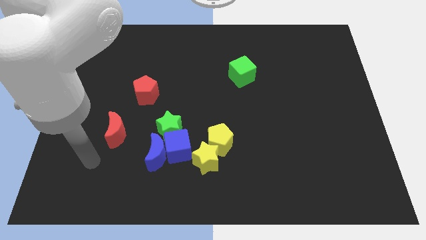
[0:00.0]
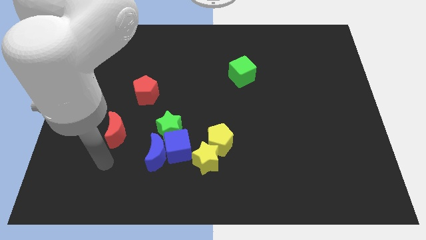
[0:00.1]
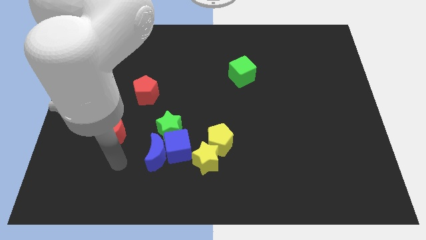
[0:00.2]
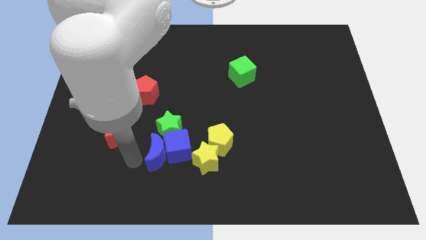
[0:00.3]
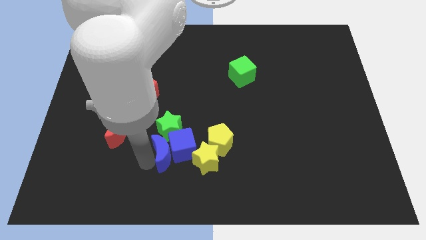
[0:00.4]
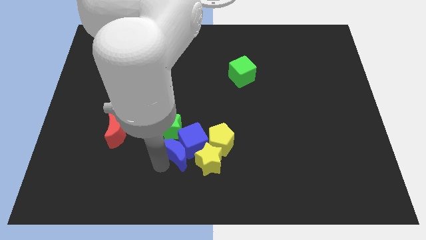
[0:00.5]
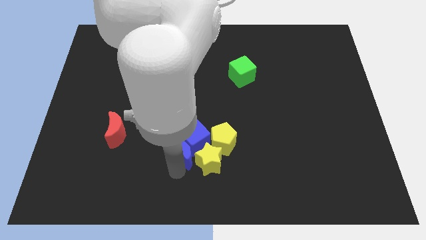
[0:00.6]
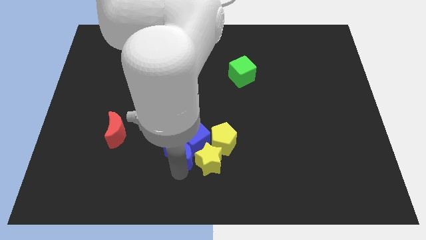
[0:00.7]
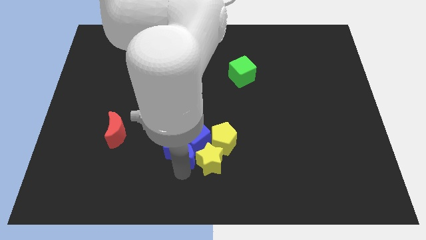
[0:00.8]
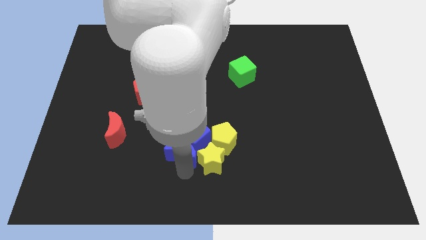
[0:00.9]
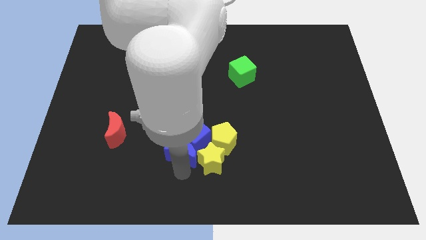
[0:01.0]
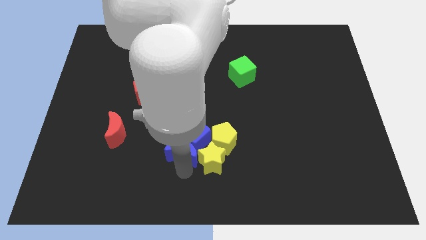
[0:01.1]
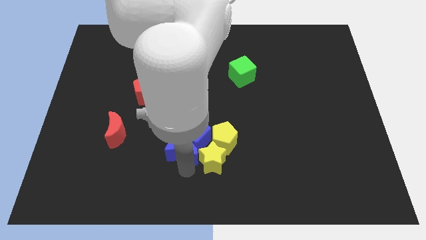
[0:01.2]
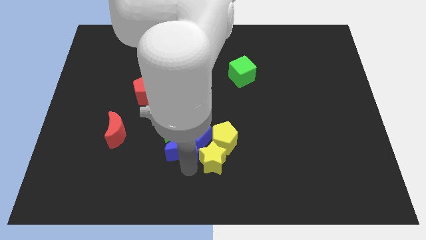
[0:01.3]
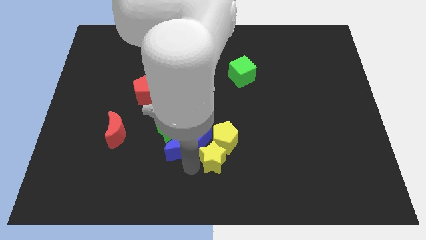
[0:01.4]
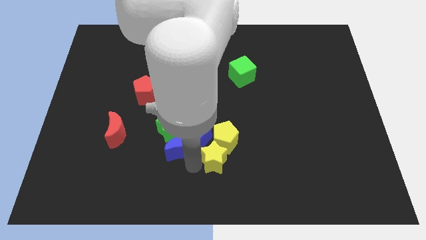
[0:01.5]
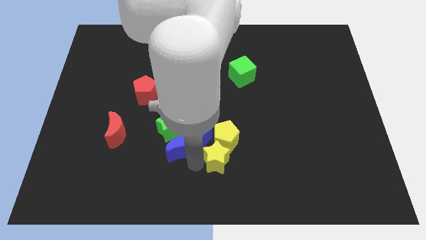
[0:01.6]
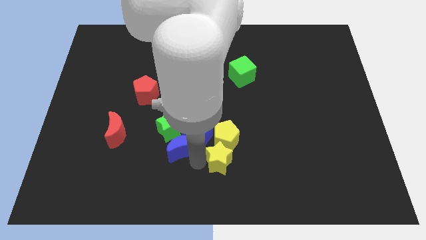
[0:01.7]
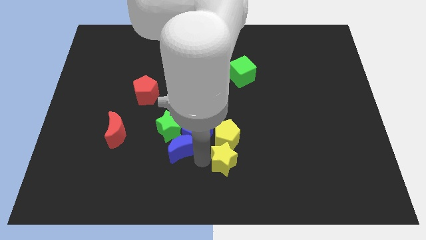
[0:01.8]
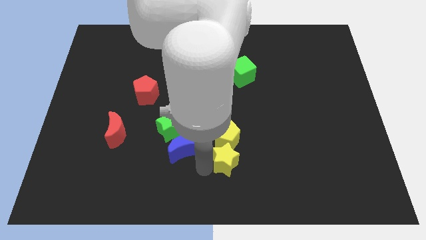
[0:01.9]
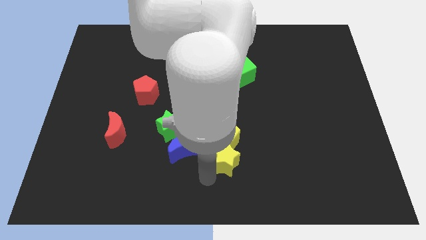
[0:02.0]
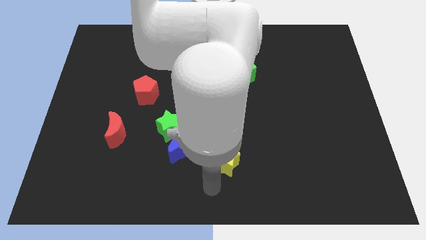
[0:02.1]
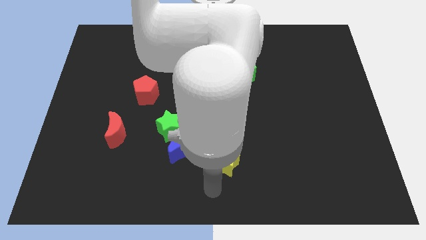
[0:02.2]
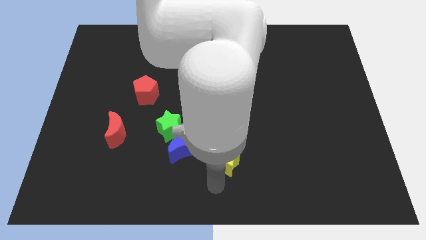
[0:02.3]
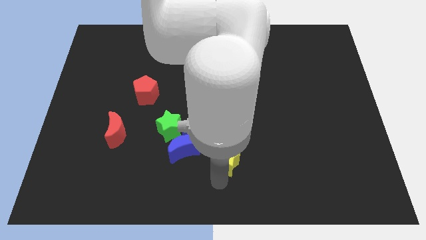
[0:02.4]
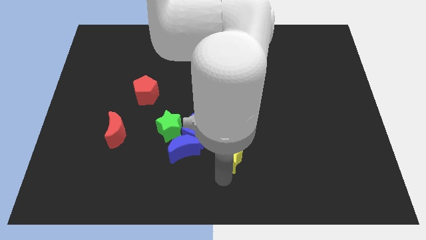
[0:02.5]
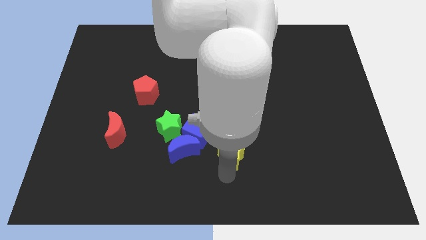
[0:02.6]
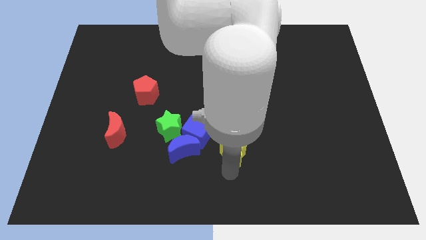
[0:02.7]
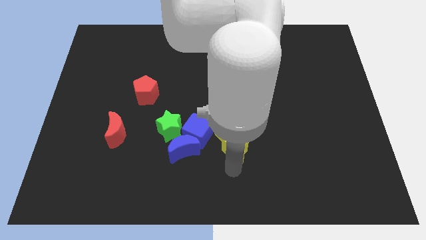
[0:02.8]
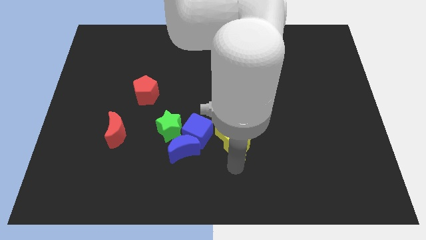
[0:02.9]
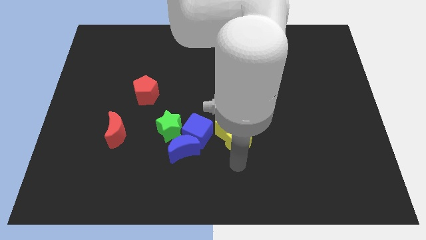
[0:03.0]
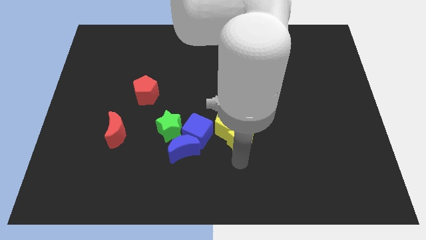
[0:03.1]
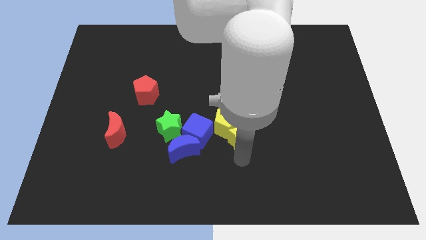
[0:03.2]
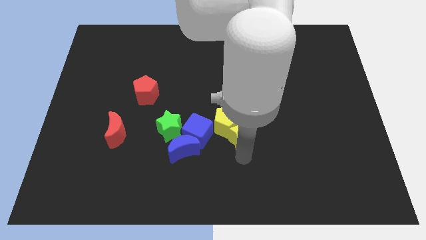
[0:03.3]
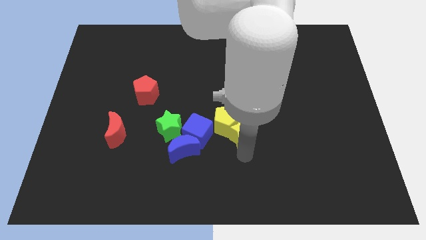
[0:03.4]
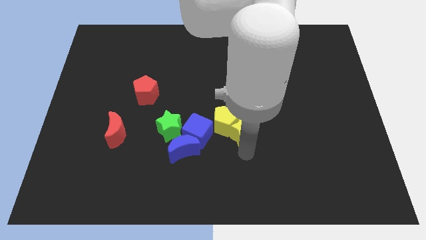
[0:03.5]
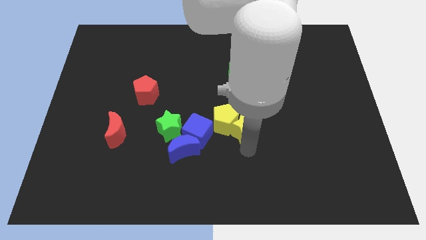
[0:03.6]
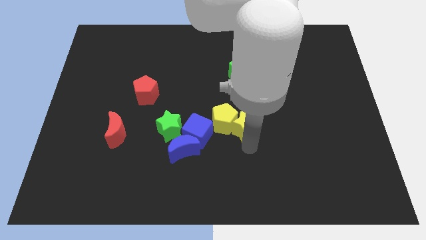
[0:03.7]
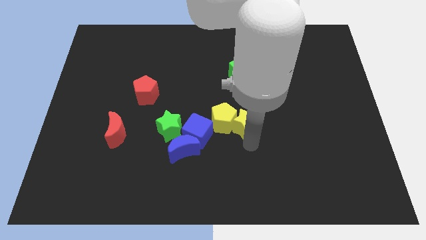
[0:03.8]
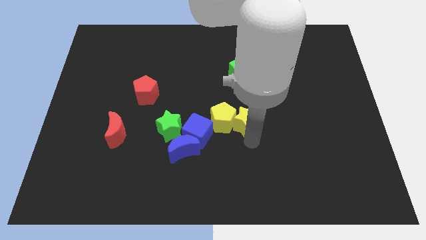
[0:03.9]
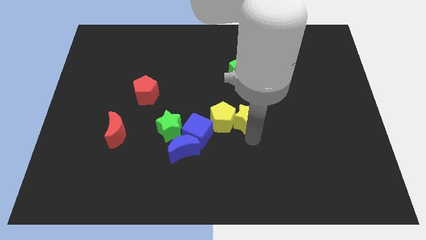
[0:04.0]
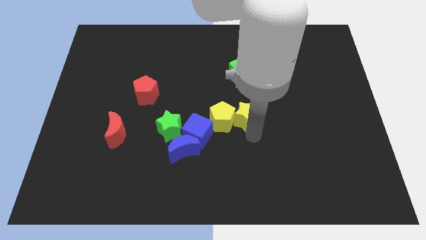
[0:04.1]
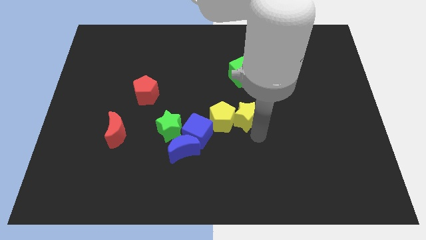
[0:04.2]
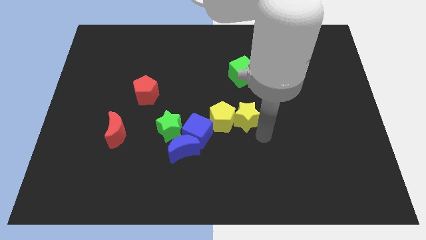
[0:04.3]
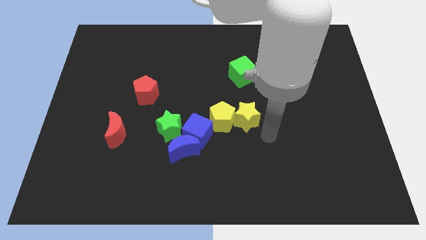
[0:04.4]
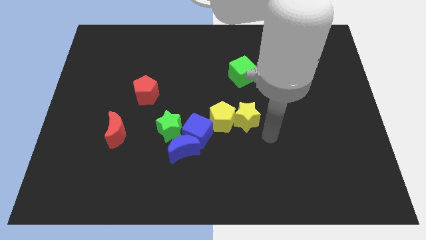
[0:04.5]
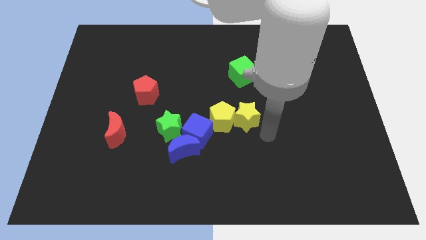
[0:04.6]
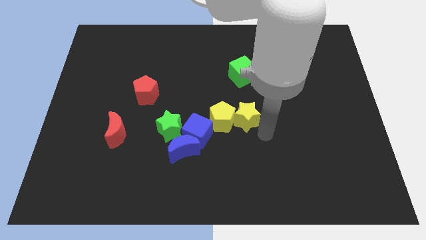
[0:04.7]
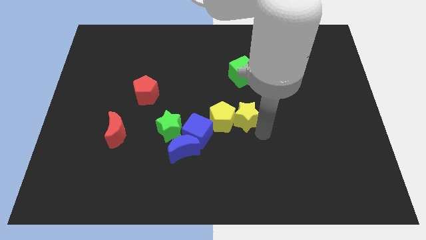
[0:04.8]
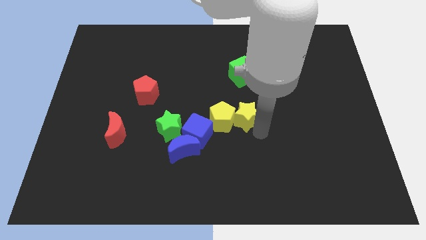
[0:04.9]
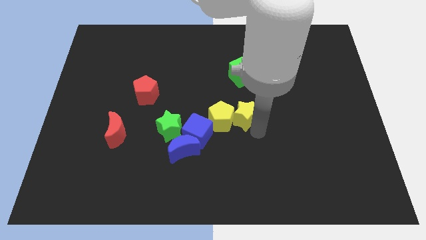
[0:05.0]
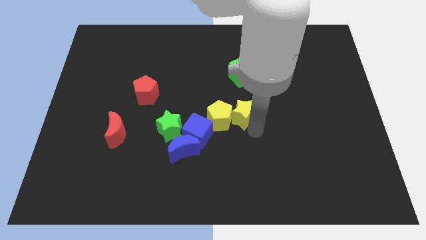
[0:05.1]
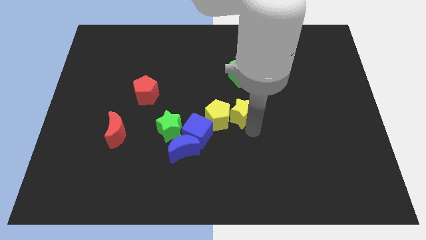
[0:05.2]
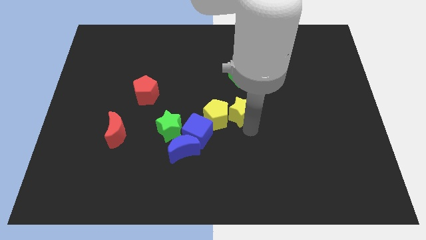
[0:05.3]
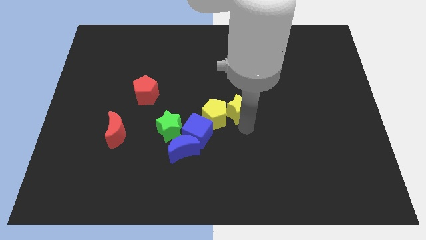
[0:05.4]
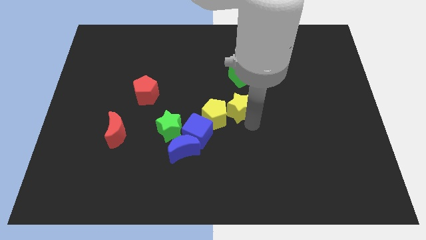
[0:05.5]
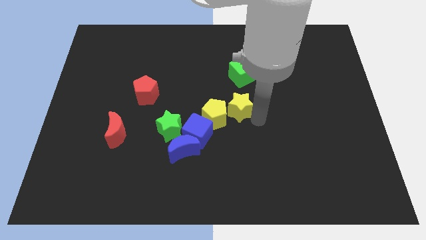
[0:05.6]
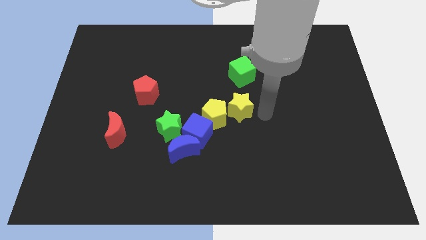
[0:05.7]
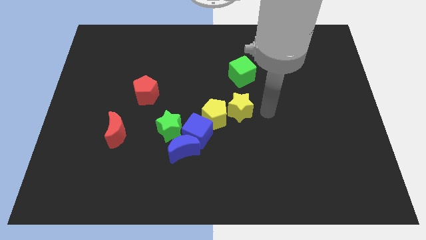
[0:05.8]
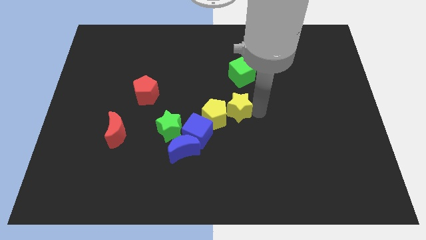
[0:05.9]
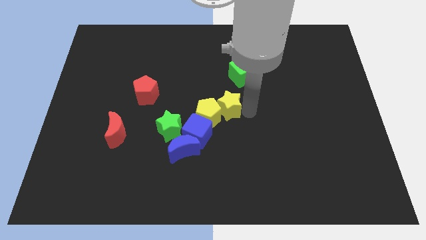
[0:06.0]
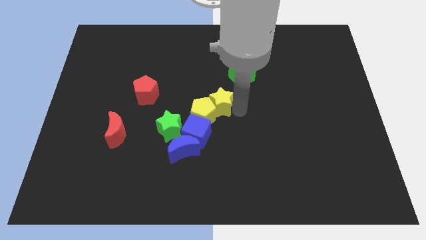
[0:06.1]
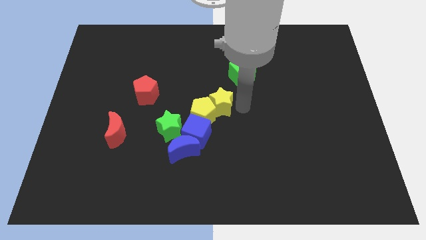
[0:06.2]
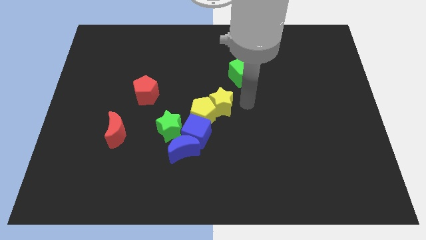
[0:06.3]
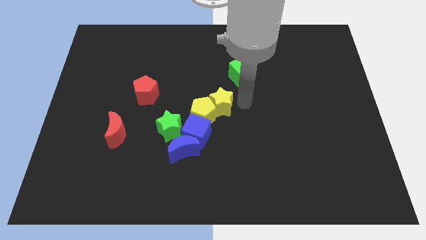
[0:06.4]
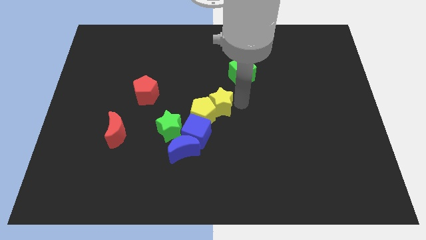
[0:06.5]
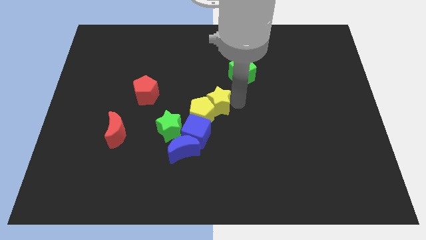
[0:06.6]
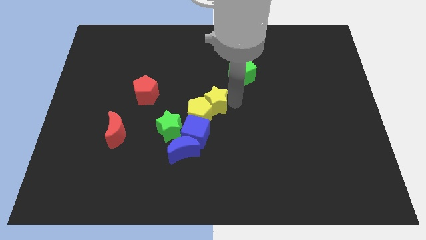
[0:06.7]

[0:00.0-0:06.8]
put the yellow star to the top right side of the green star

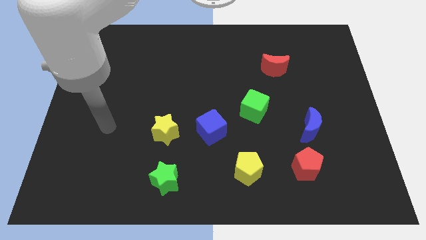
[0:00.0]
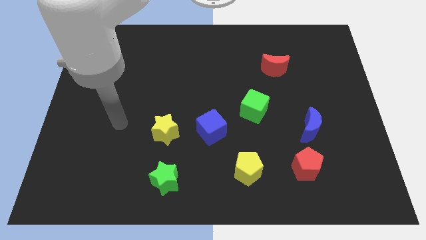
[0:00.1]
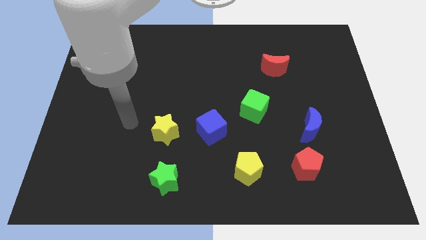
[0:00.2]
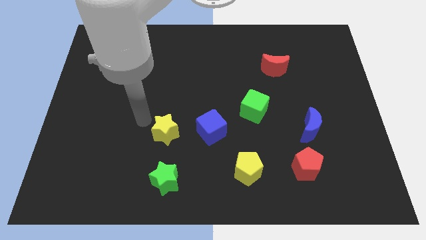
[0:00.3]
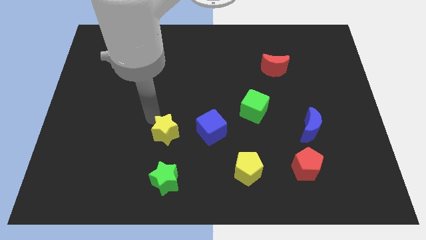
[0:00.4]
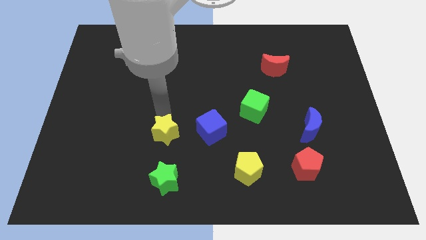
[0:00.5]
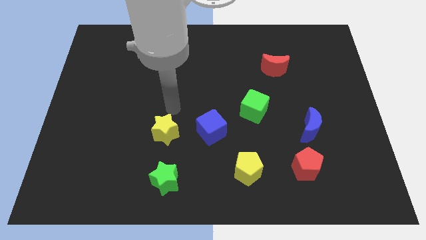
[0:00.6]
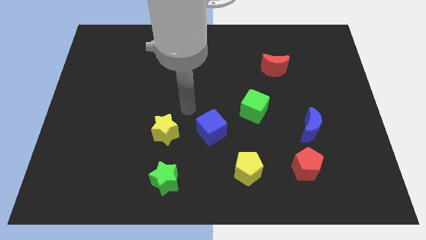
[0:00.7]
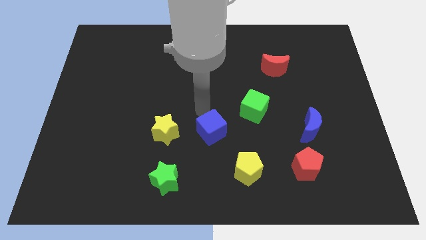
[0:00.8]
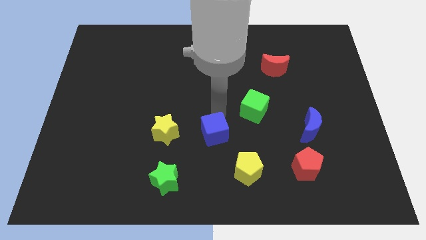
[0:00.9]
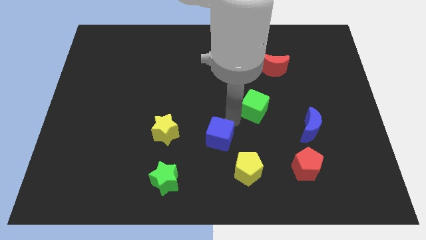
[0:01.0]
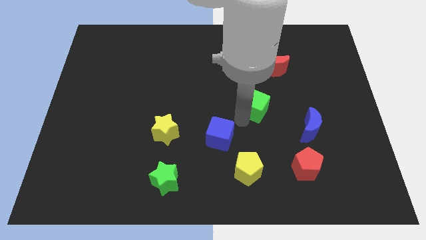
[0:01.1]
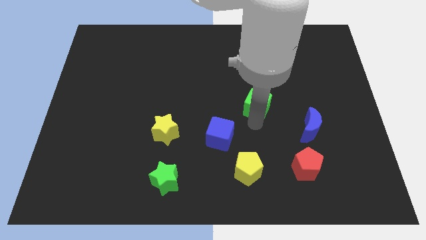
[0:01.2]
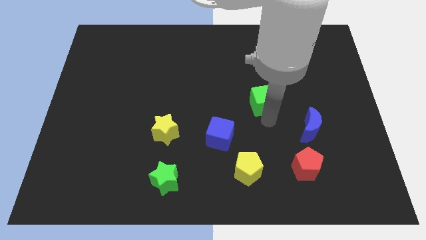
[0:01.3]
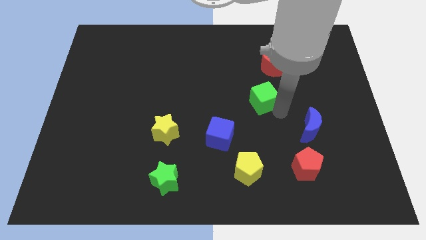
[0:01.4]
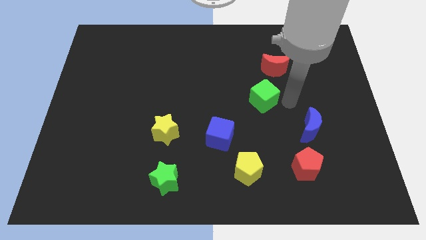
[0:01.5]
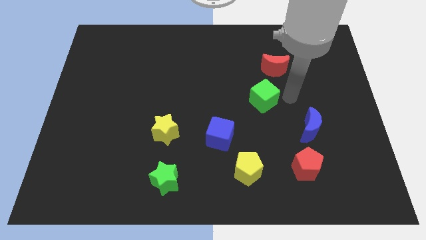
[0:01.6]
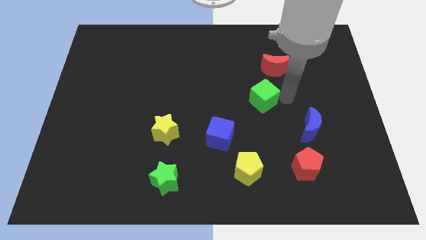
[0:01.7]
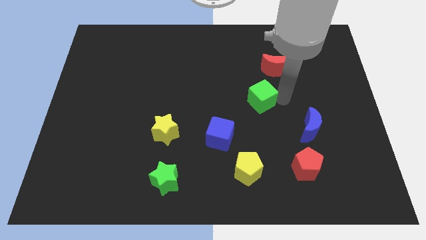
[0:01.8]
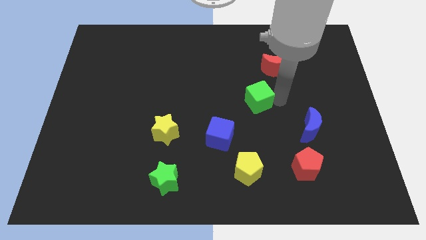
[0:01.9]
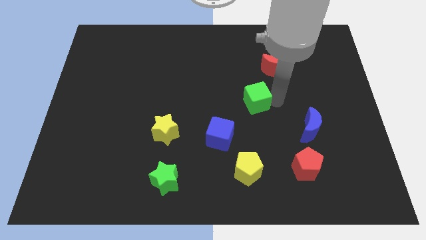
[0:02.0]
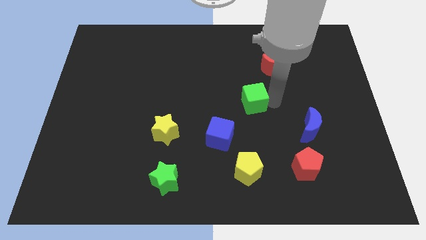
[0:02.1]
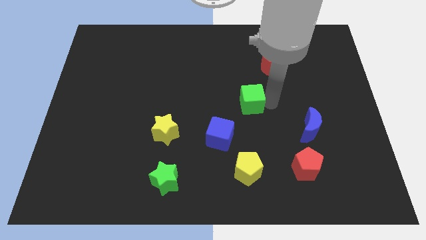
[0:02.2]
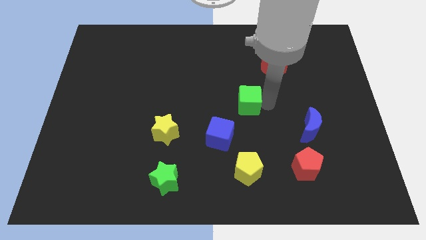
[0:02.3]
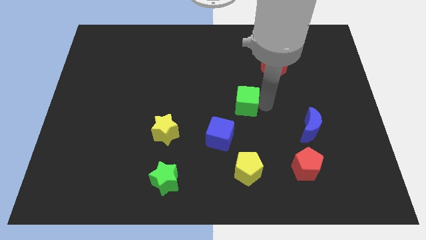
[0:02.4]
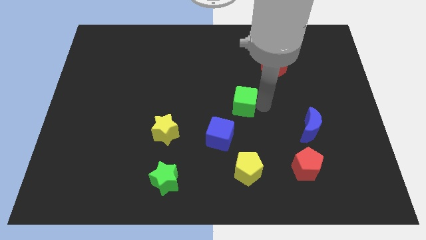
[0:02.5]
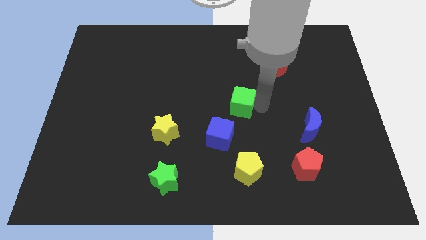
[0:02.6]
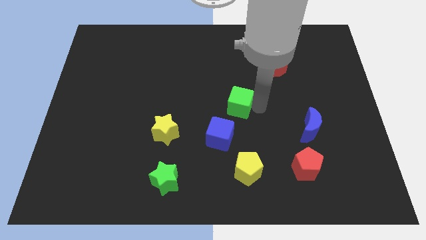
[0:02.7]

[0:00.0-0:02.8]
put the green cube to the top side of the blue cube
